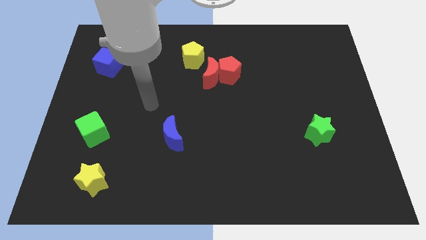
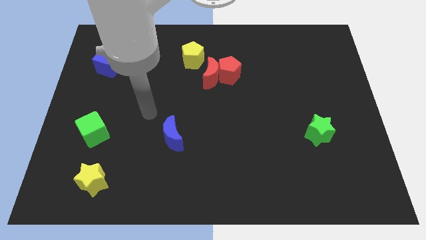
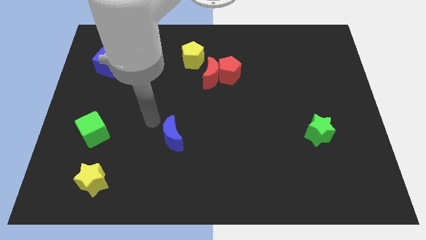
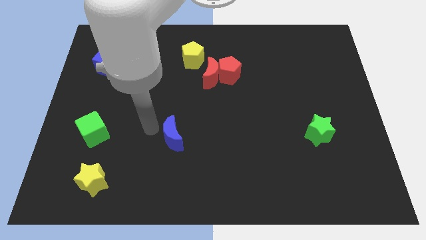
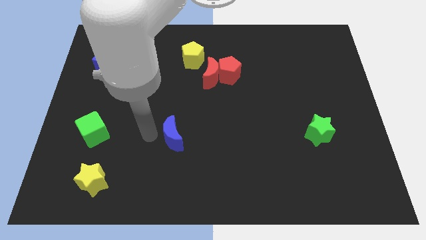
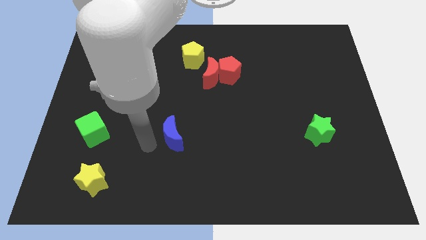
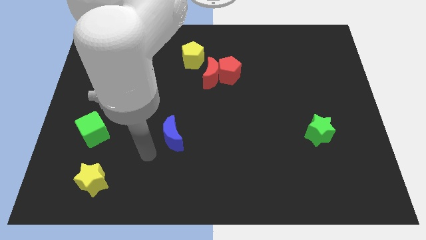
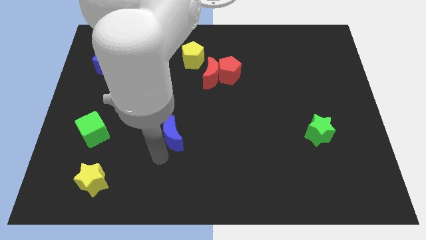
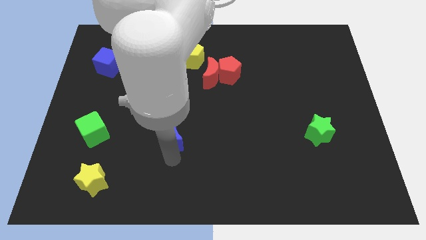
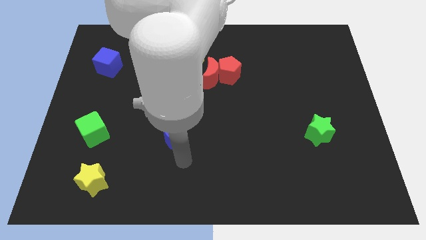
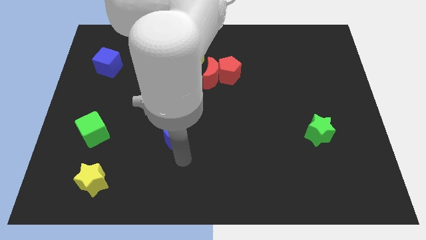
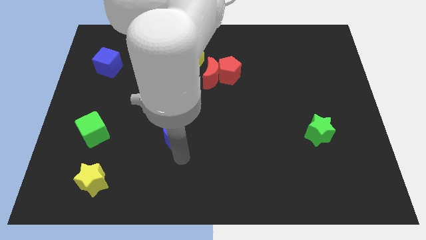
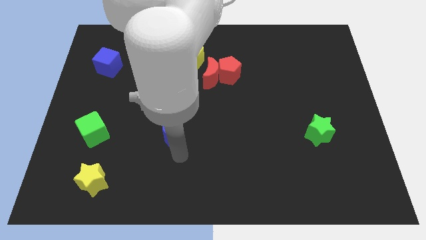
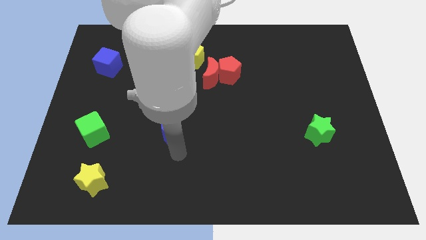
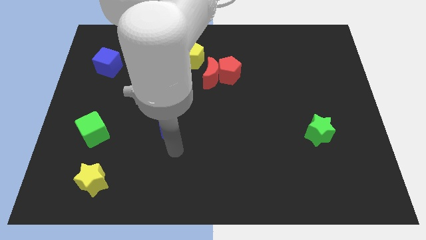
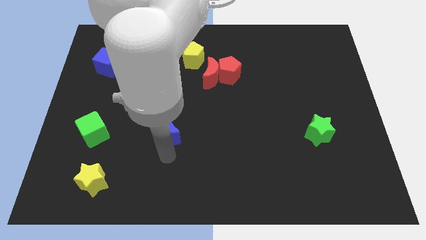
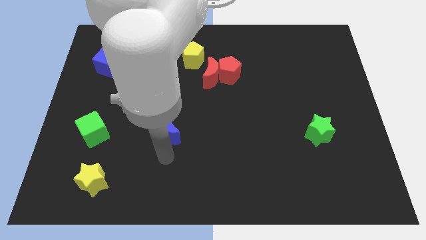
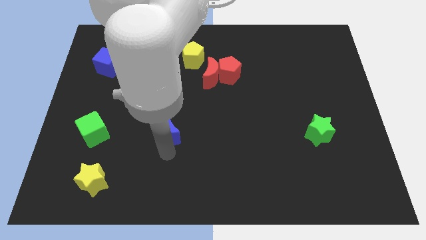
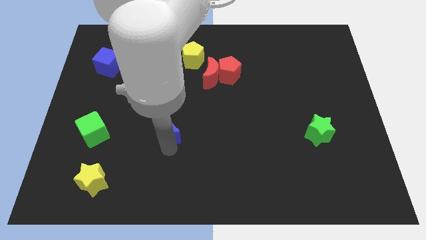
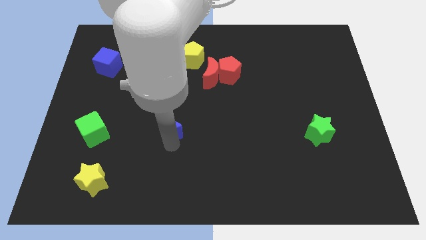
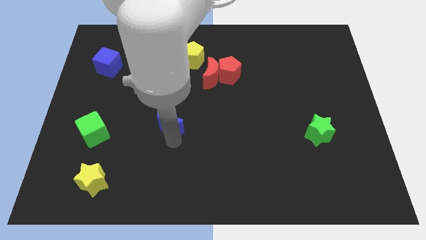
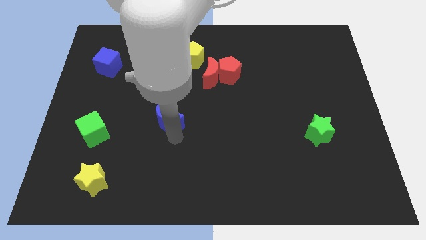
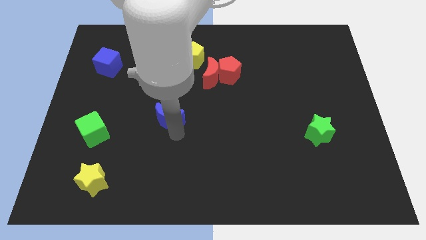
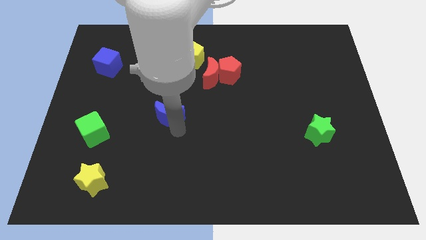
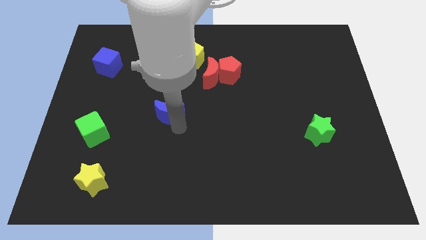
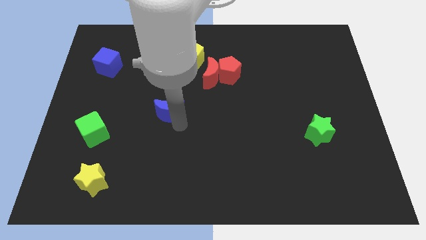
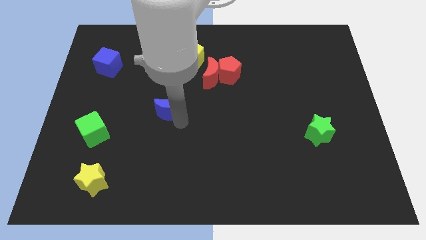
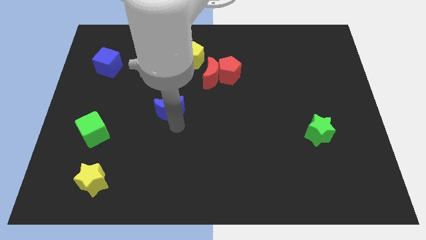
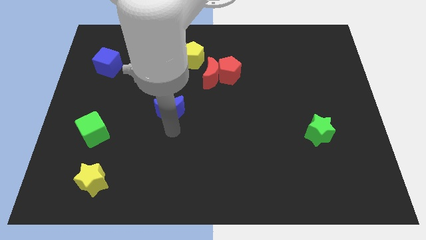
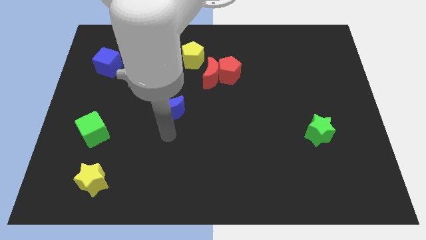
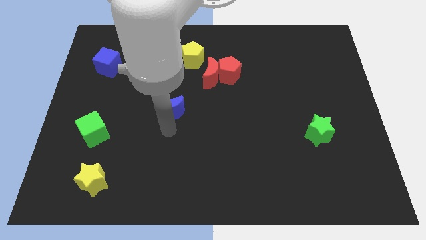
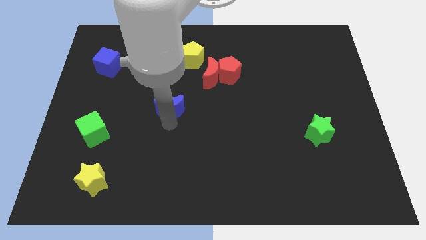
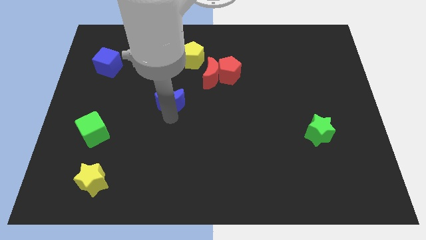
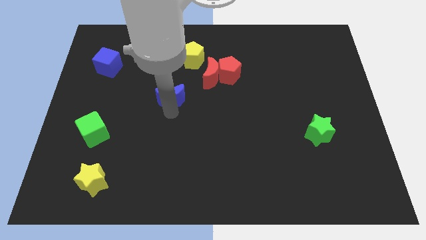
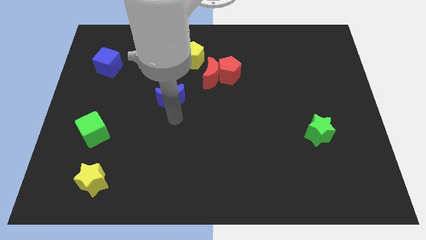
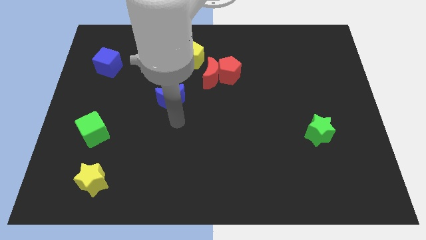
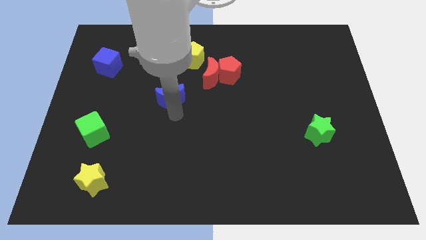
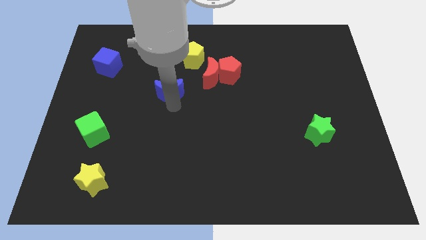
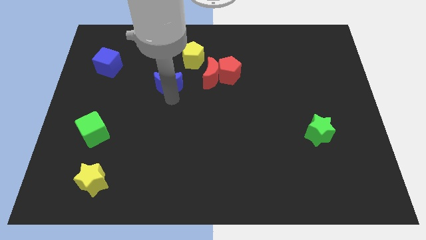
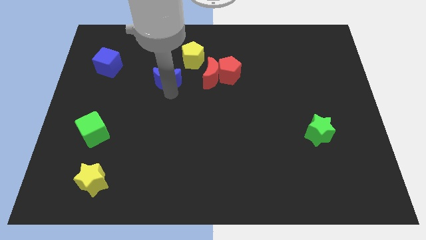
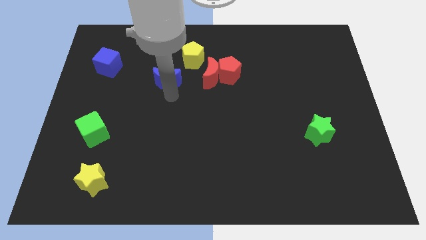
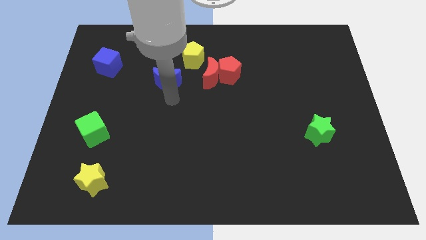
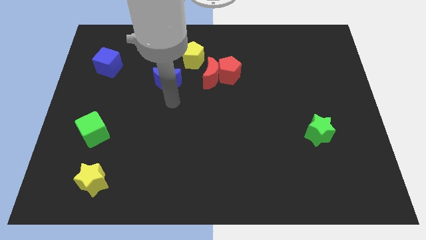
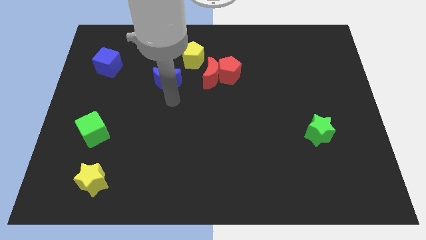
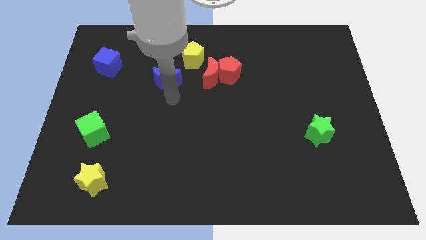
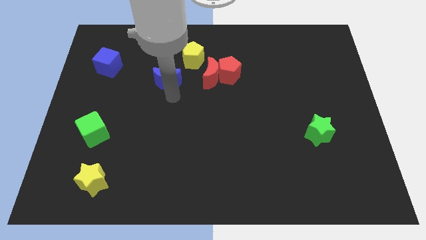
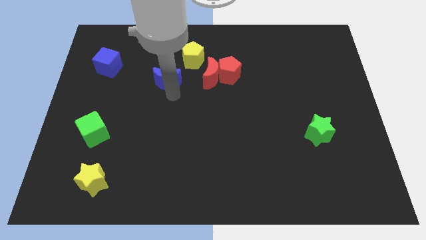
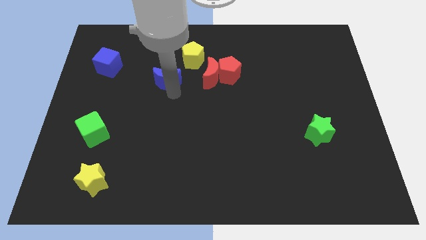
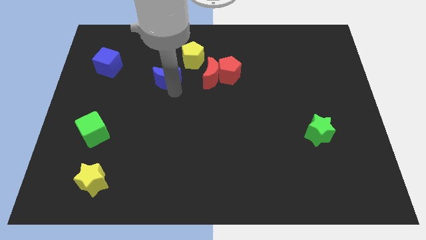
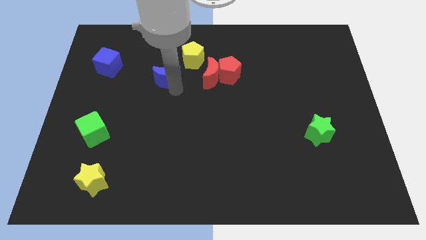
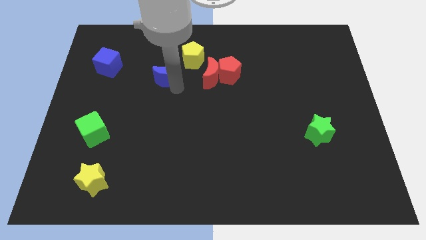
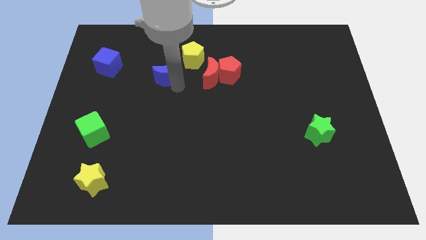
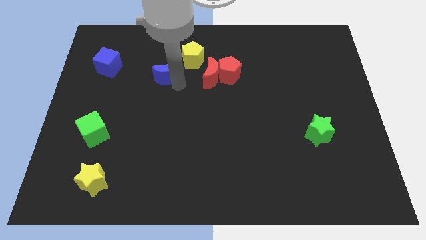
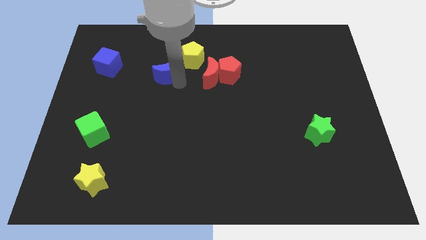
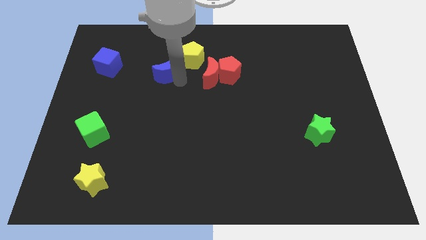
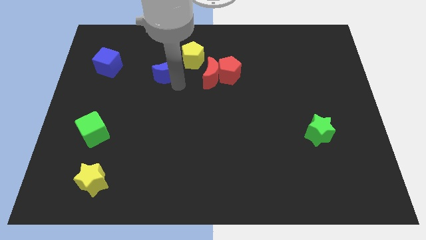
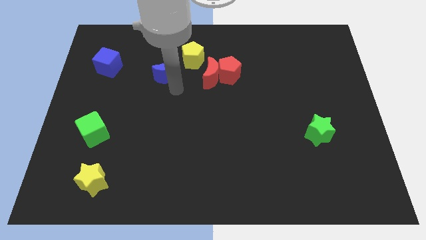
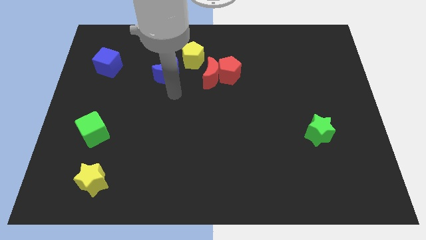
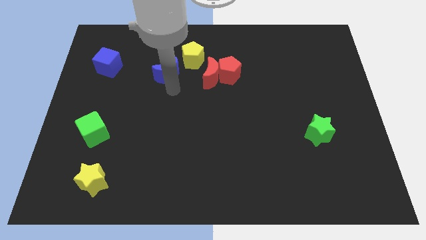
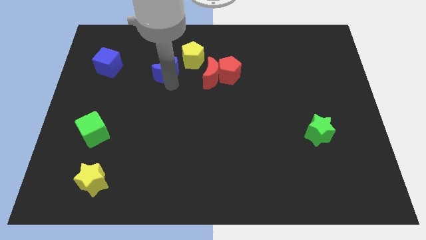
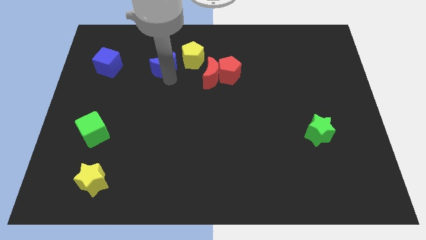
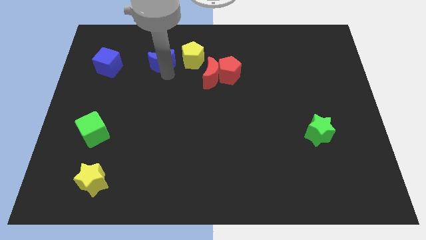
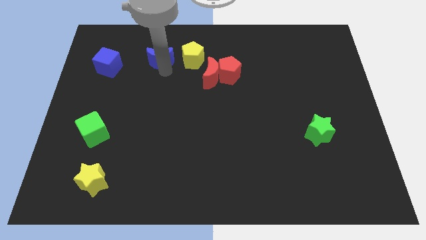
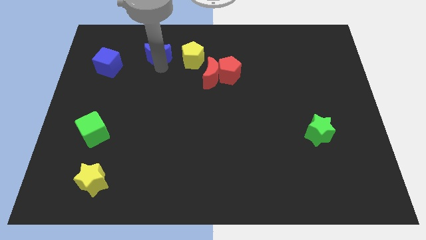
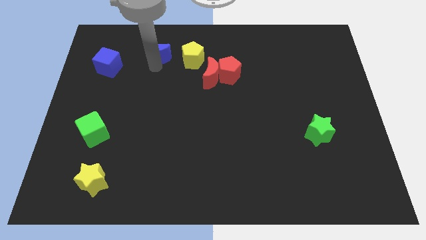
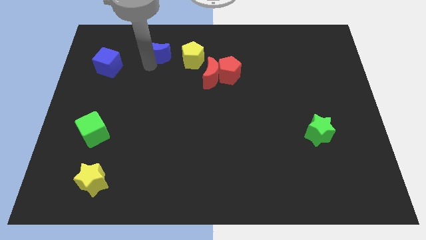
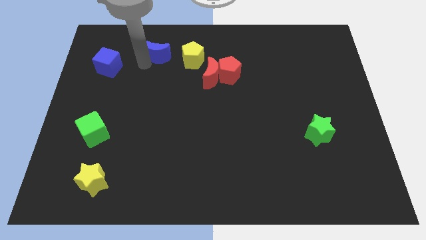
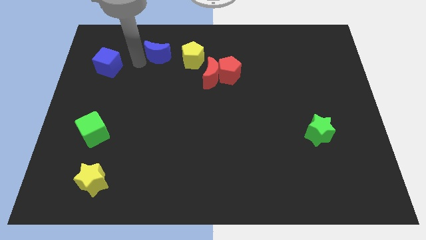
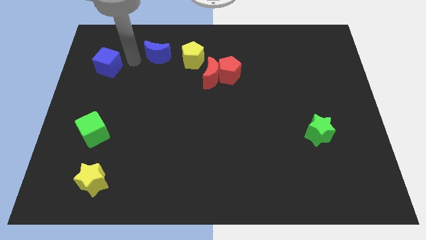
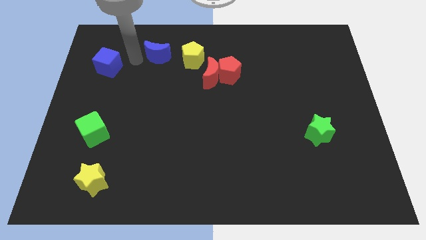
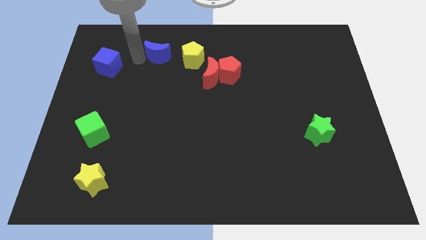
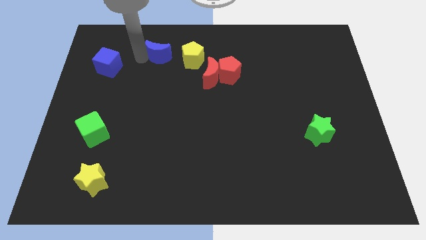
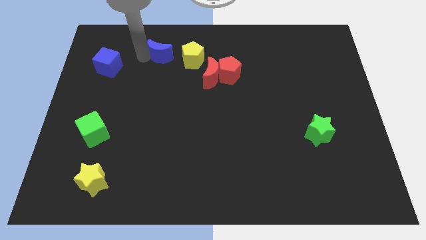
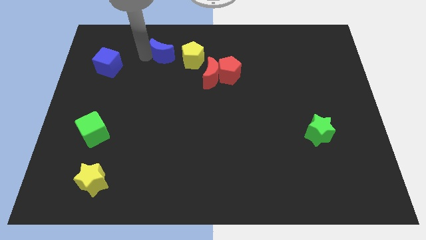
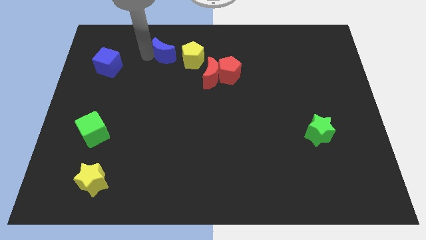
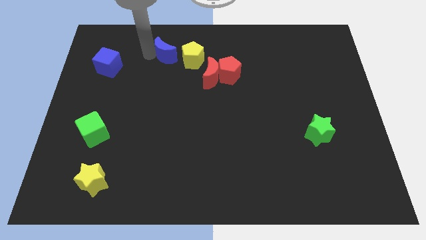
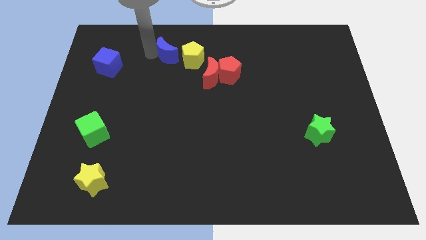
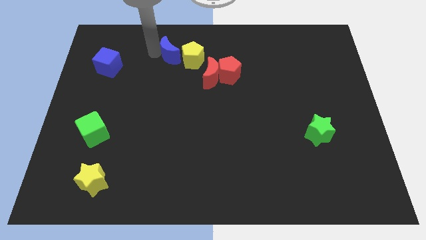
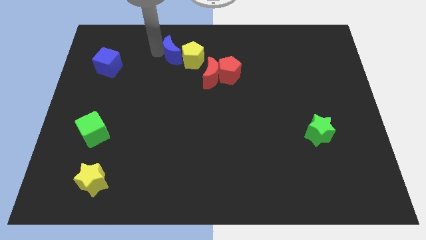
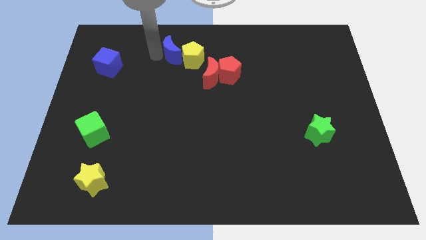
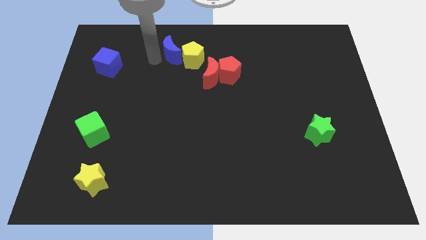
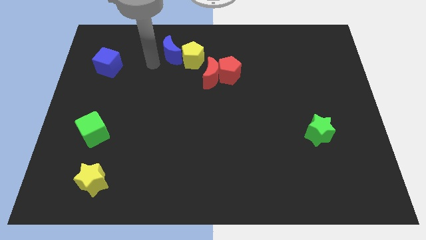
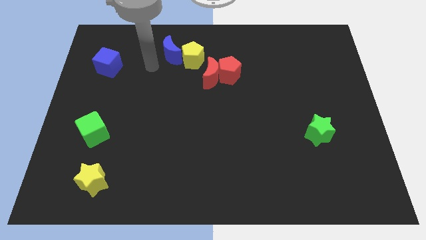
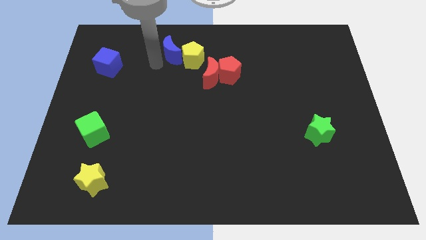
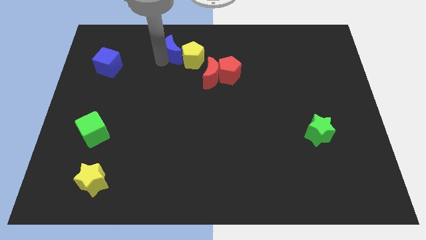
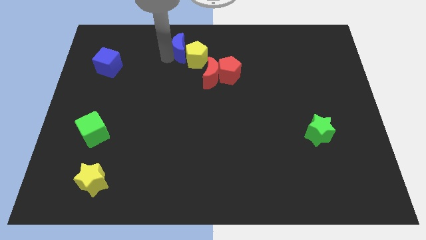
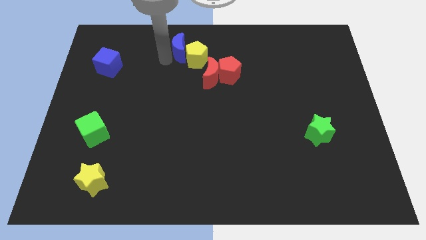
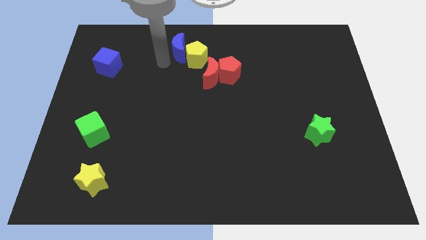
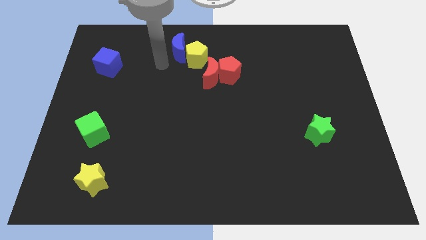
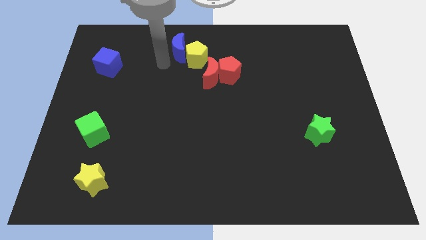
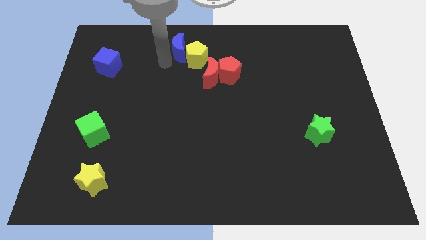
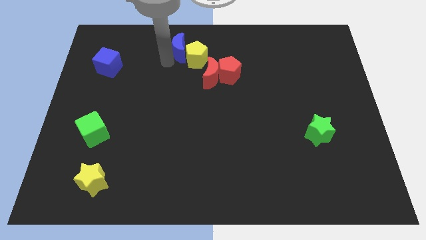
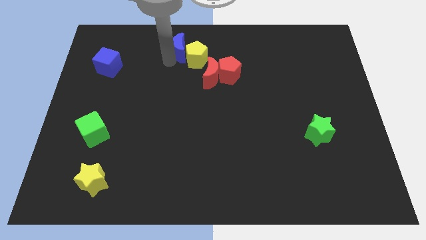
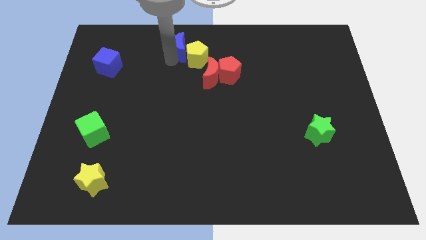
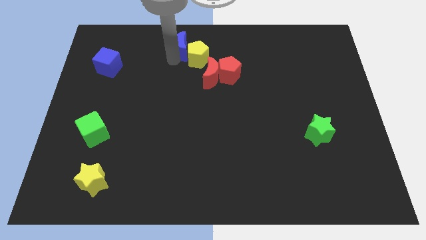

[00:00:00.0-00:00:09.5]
slide the blue moon to the top side
